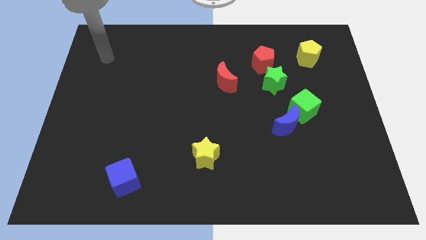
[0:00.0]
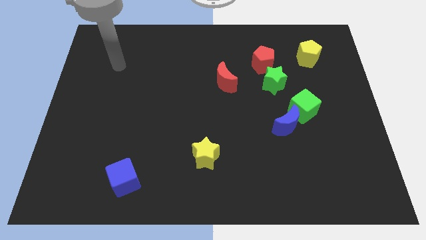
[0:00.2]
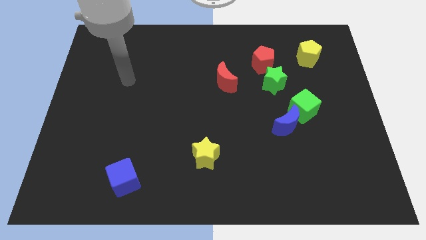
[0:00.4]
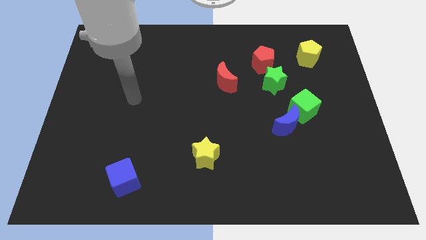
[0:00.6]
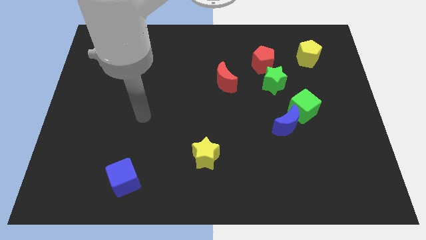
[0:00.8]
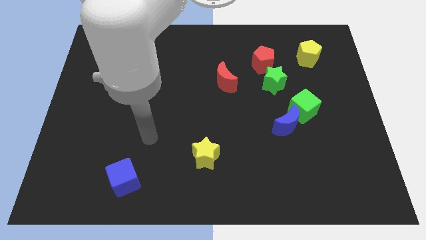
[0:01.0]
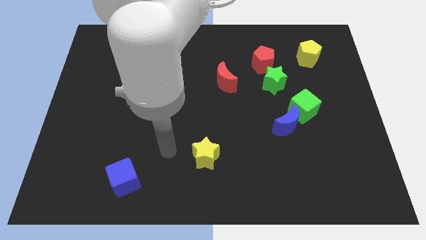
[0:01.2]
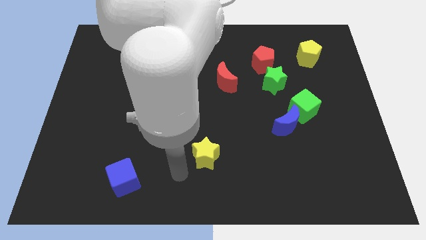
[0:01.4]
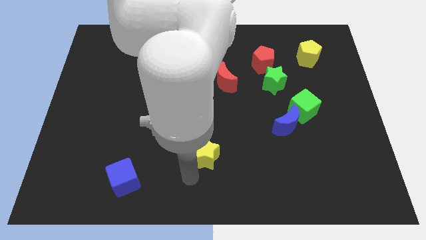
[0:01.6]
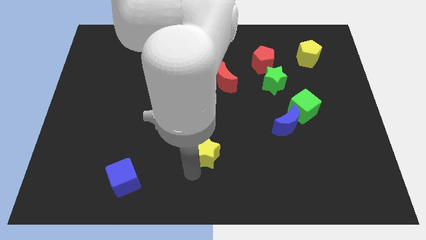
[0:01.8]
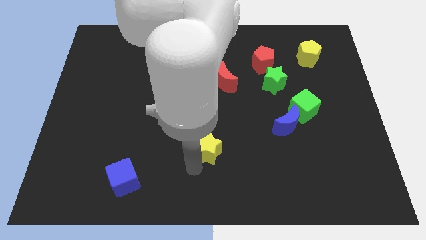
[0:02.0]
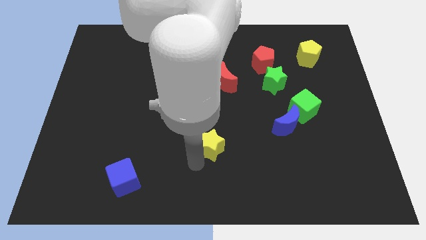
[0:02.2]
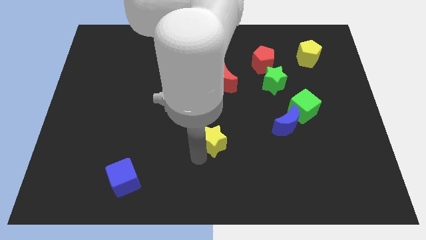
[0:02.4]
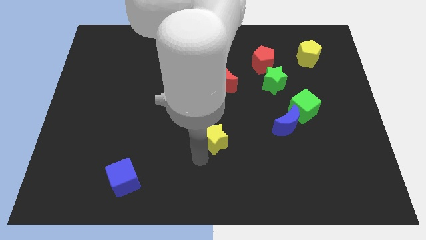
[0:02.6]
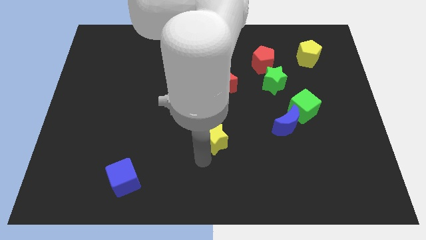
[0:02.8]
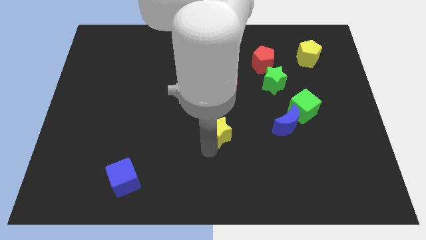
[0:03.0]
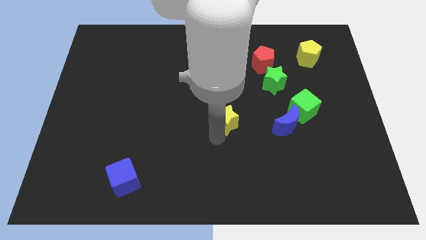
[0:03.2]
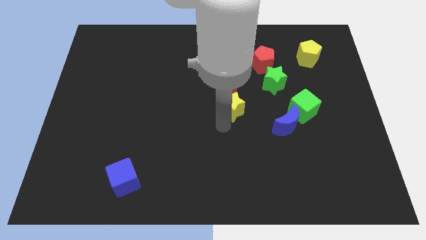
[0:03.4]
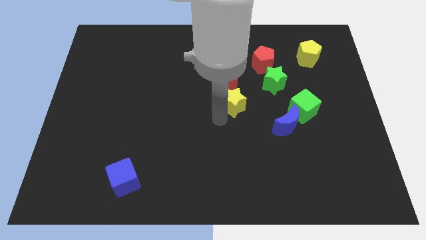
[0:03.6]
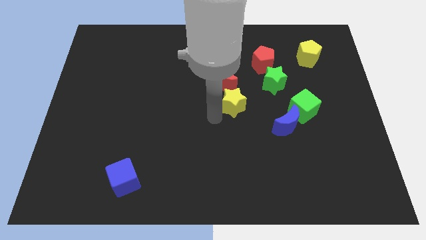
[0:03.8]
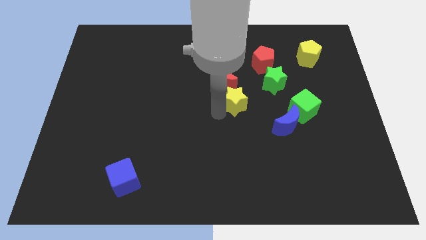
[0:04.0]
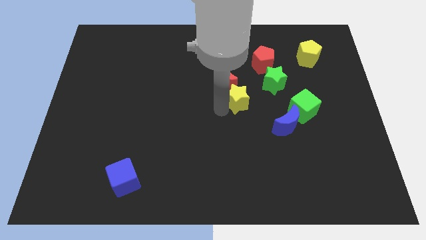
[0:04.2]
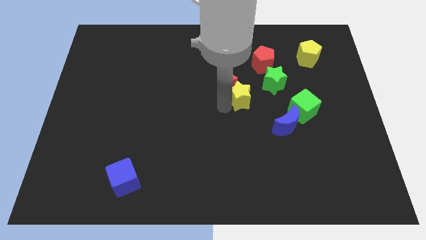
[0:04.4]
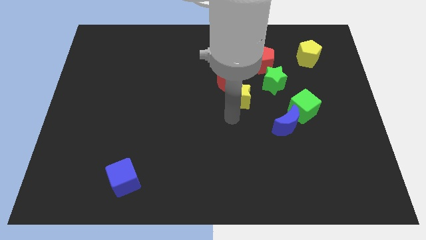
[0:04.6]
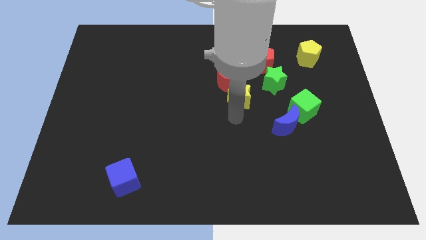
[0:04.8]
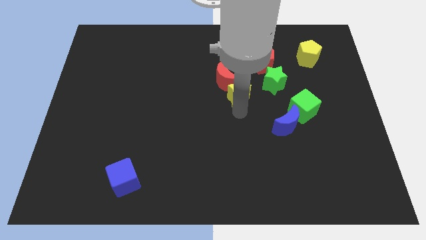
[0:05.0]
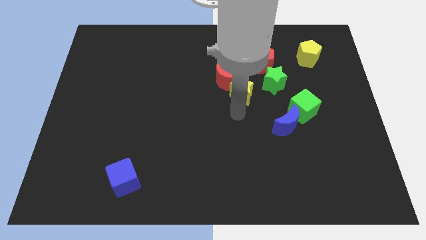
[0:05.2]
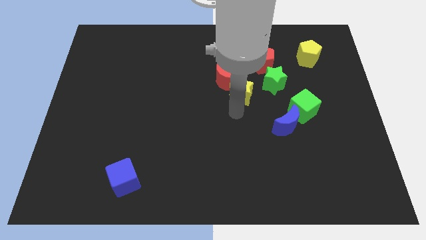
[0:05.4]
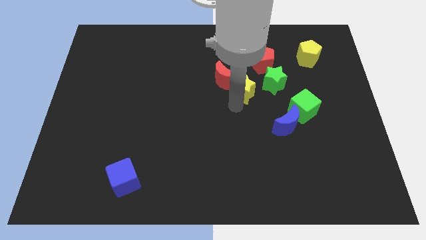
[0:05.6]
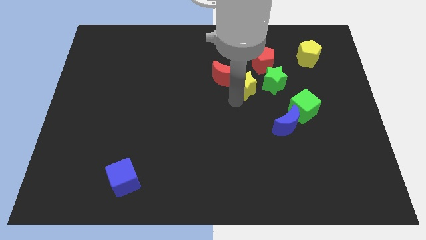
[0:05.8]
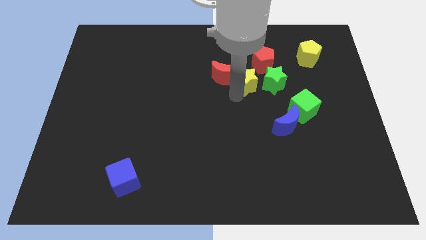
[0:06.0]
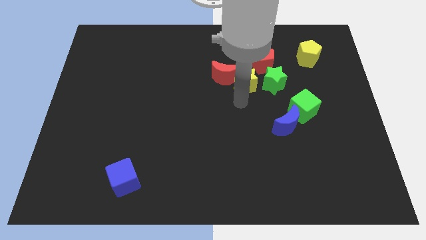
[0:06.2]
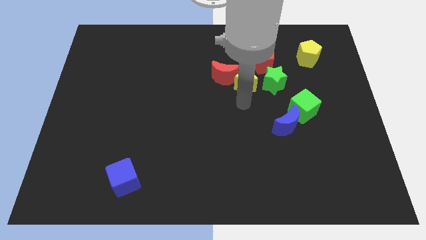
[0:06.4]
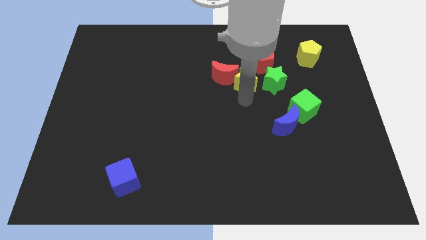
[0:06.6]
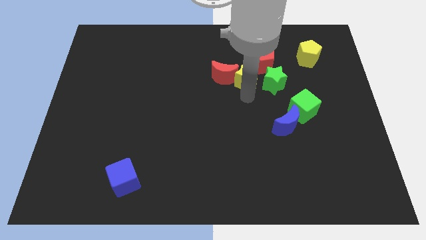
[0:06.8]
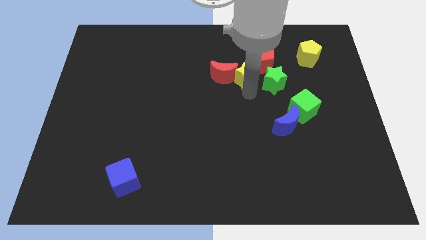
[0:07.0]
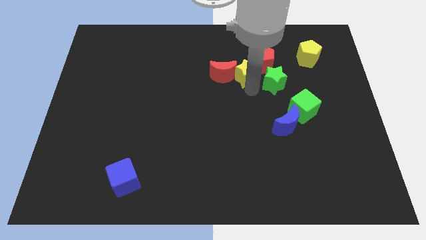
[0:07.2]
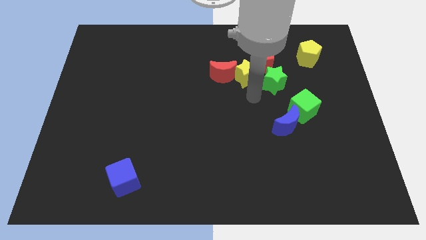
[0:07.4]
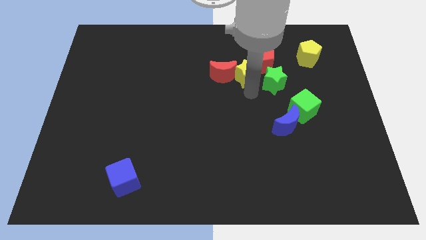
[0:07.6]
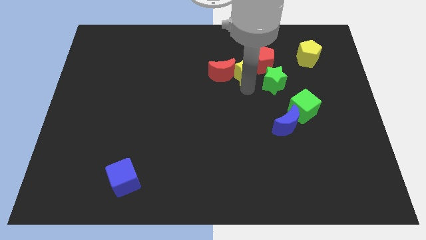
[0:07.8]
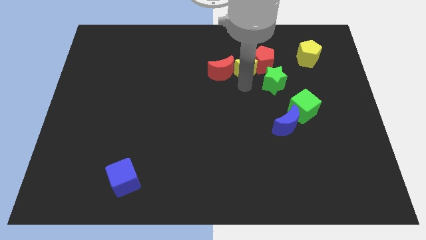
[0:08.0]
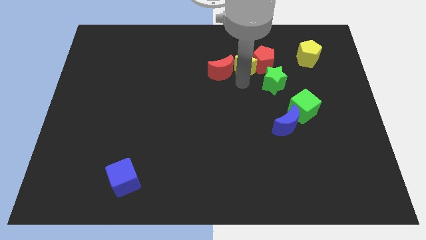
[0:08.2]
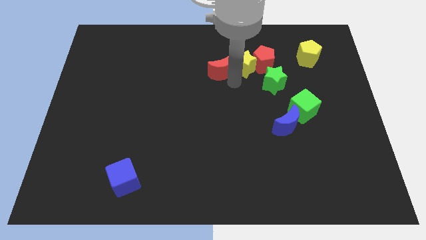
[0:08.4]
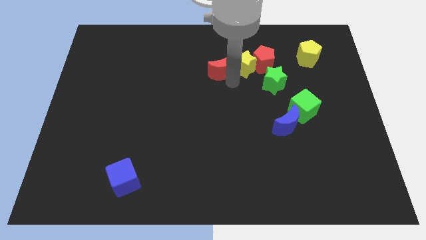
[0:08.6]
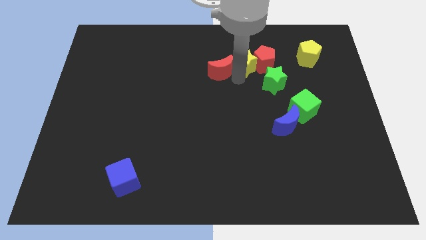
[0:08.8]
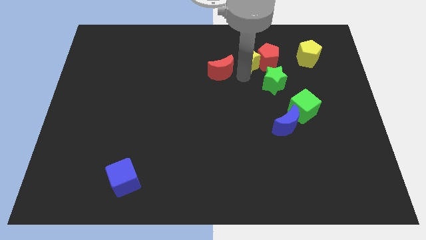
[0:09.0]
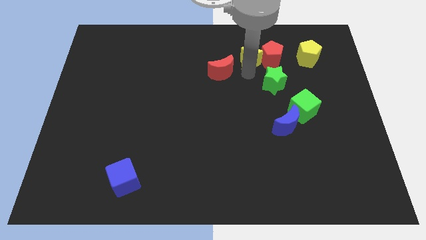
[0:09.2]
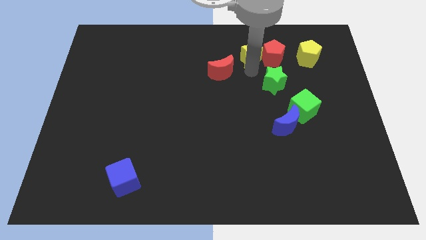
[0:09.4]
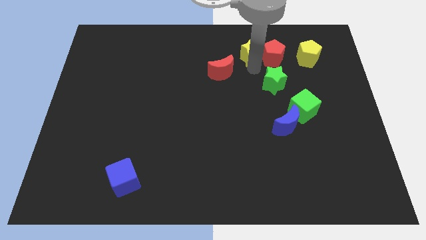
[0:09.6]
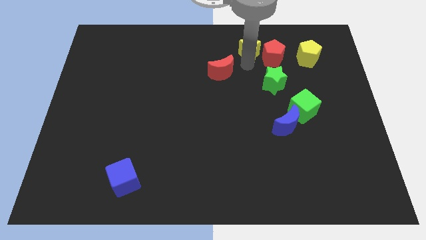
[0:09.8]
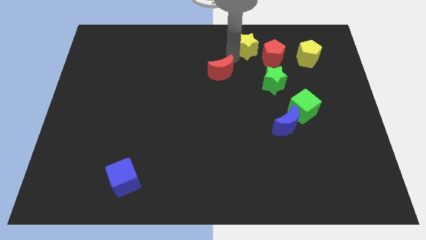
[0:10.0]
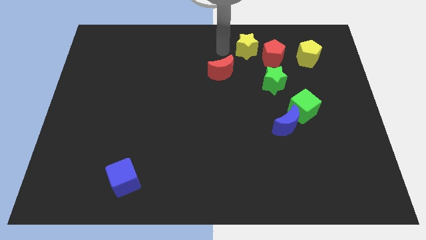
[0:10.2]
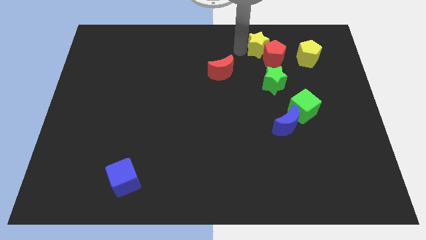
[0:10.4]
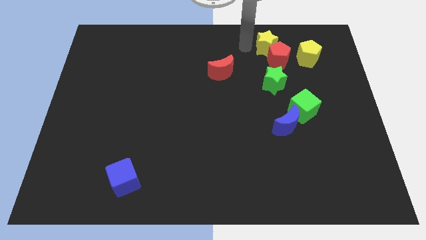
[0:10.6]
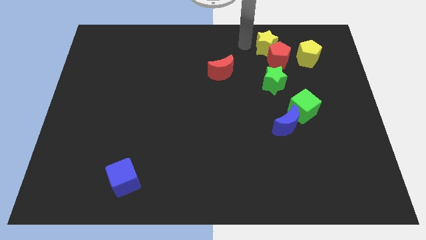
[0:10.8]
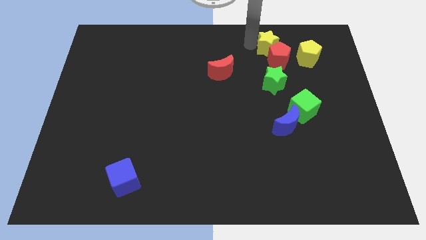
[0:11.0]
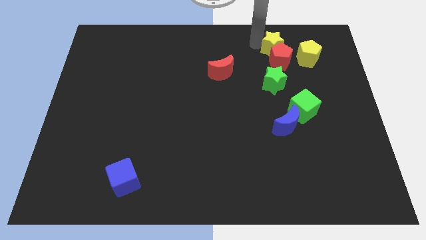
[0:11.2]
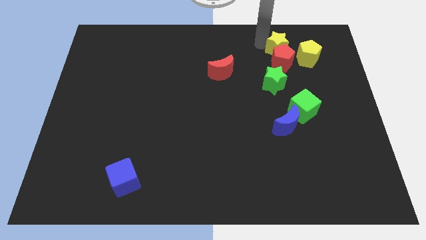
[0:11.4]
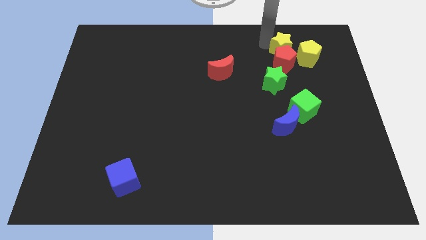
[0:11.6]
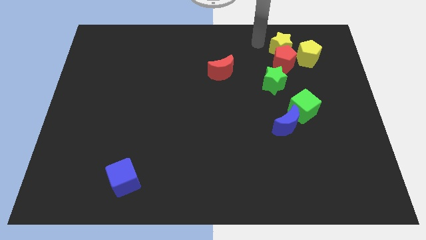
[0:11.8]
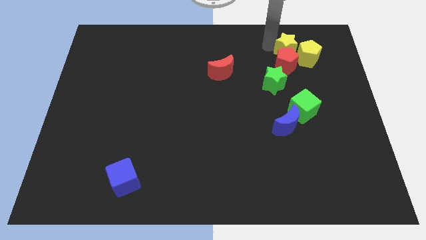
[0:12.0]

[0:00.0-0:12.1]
put the yellow star towards the yellow pentagon

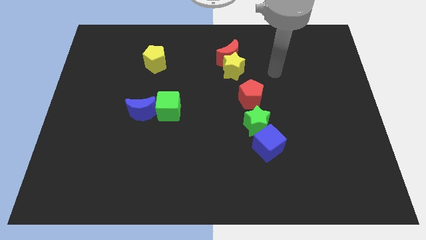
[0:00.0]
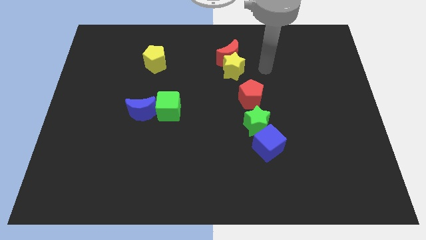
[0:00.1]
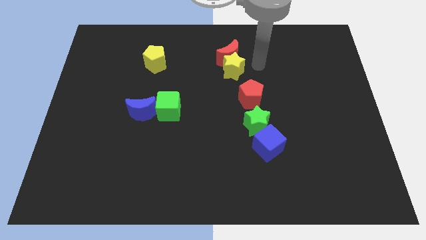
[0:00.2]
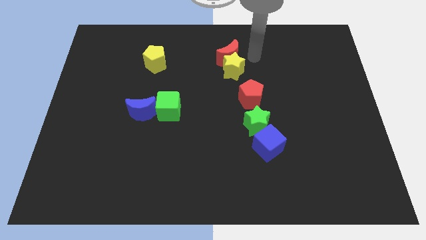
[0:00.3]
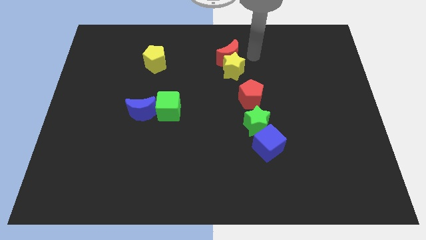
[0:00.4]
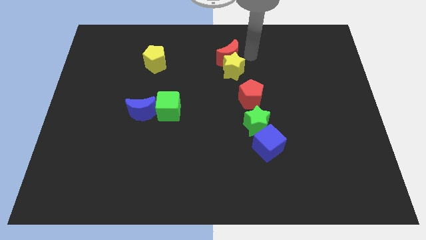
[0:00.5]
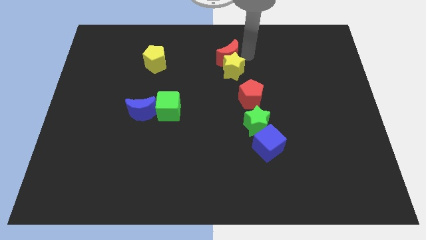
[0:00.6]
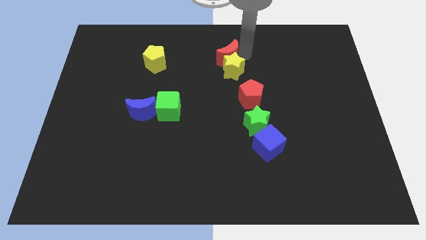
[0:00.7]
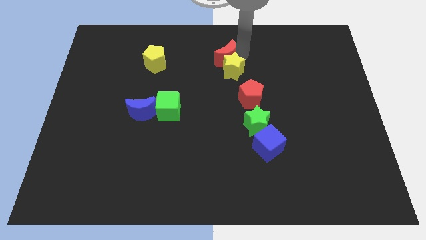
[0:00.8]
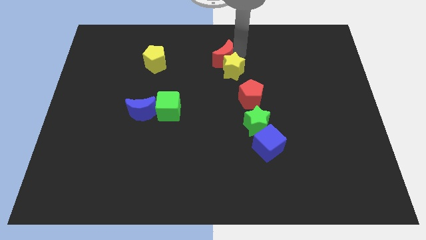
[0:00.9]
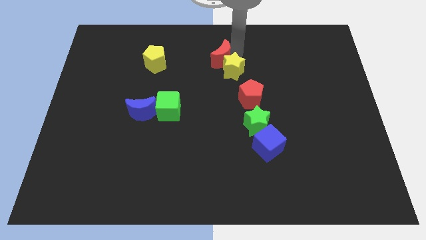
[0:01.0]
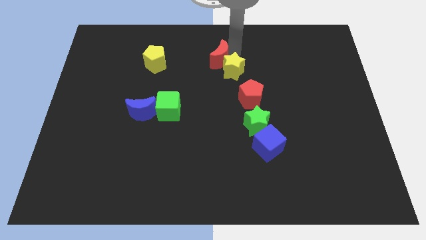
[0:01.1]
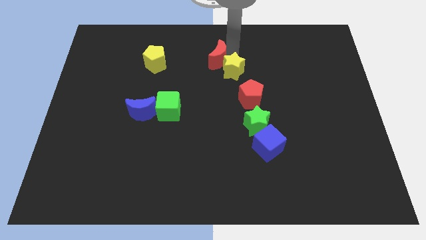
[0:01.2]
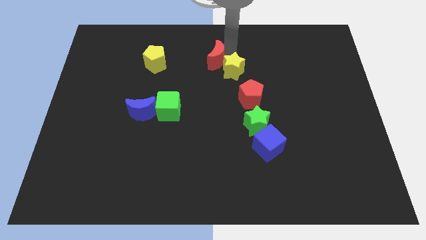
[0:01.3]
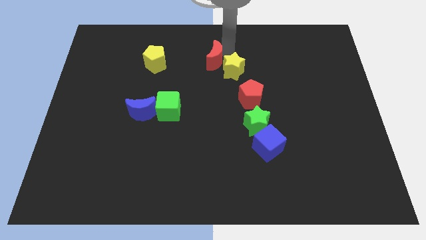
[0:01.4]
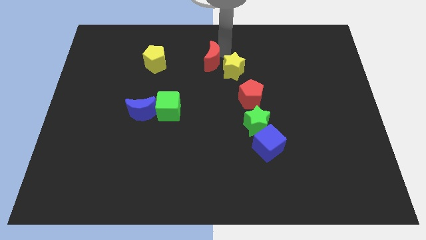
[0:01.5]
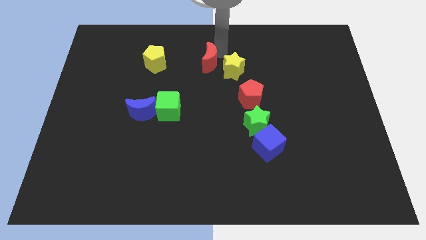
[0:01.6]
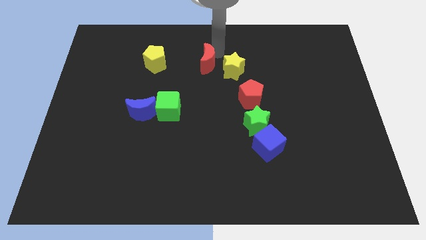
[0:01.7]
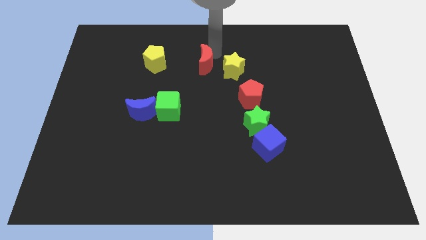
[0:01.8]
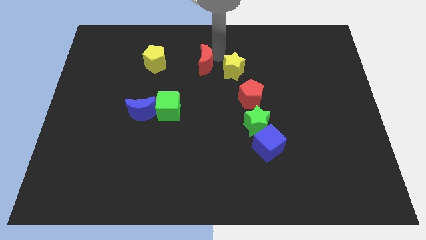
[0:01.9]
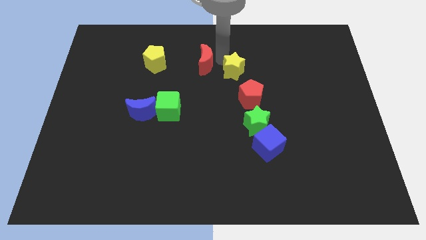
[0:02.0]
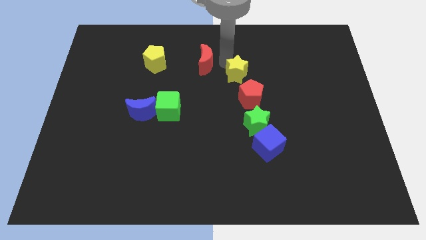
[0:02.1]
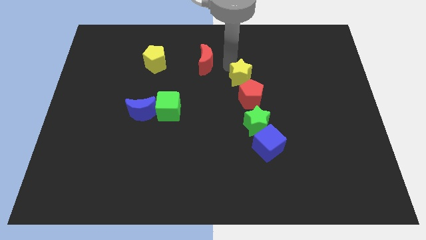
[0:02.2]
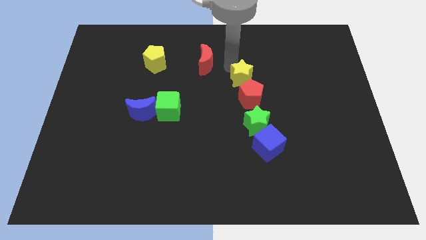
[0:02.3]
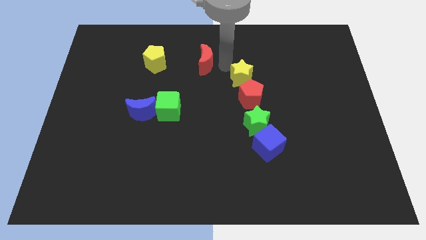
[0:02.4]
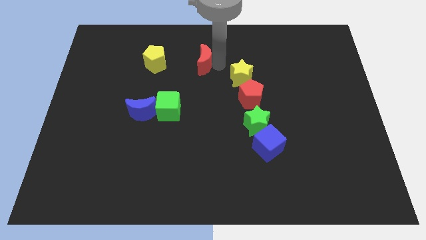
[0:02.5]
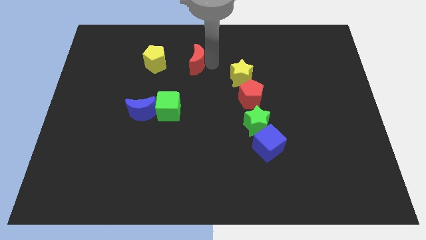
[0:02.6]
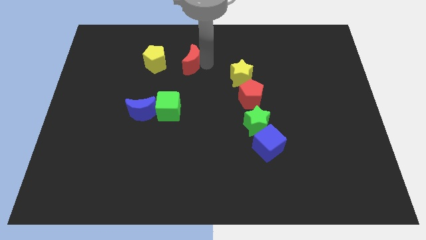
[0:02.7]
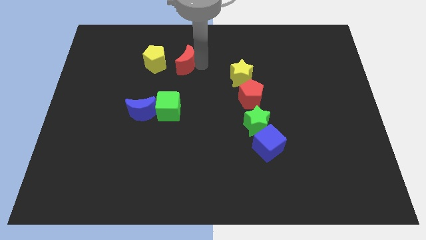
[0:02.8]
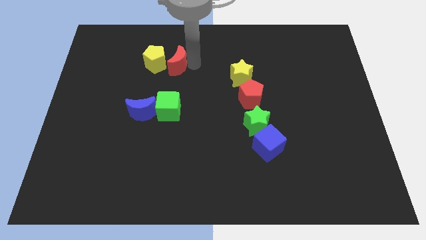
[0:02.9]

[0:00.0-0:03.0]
slide the red moon to the yellow pentagon
